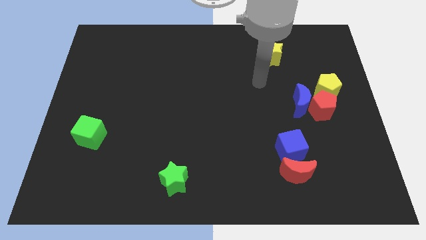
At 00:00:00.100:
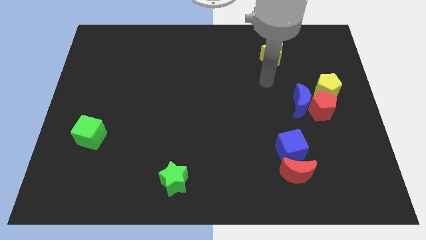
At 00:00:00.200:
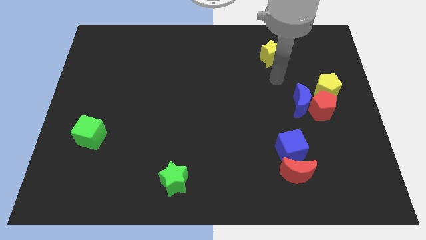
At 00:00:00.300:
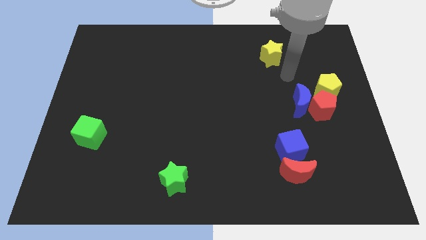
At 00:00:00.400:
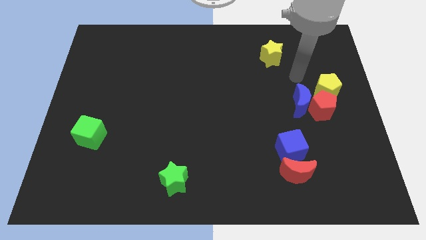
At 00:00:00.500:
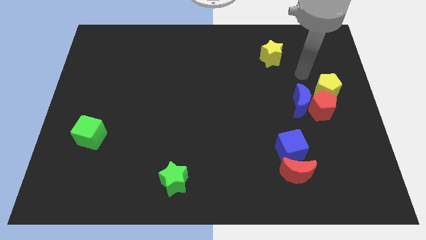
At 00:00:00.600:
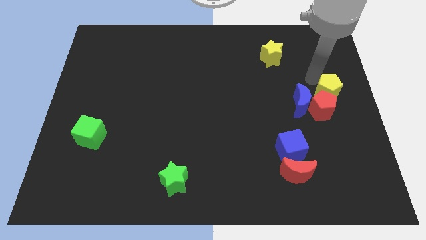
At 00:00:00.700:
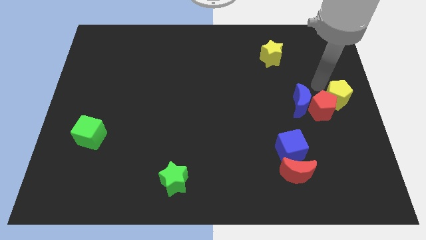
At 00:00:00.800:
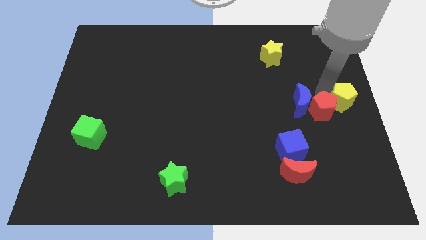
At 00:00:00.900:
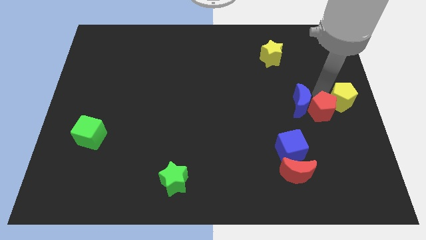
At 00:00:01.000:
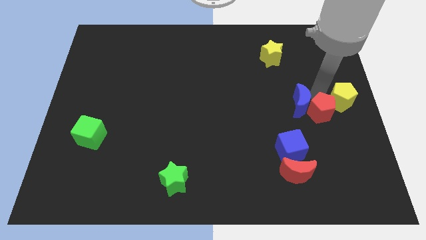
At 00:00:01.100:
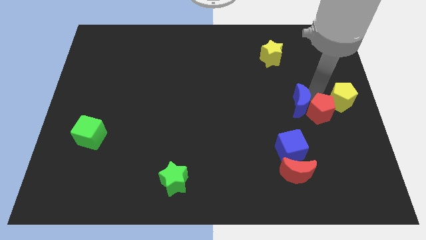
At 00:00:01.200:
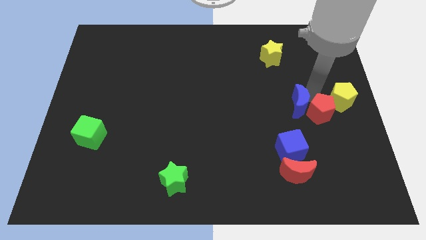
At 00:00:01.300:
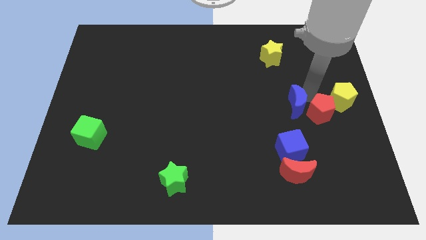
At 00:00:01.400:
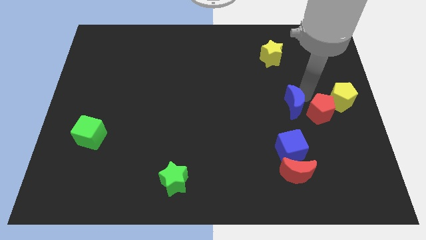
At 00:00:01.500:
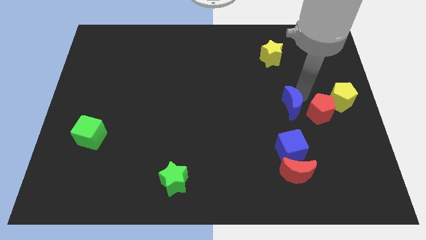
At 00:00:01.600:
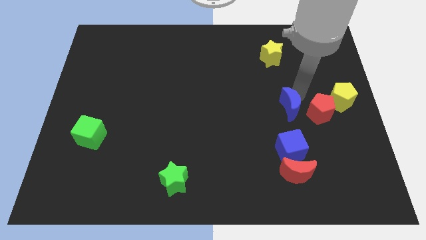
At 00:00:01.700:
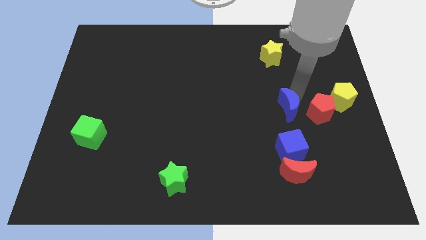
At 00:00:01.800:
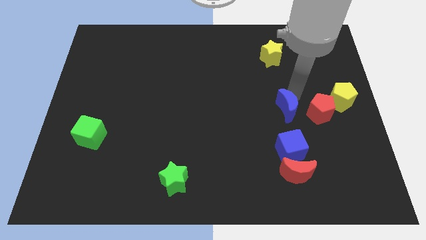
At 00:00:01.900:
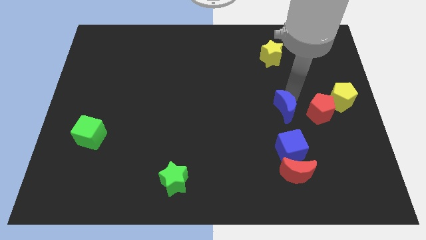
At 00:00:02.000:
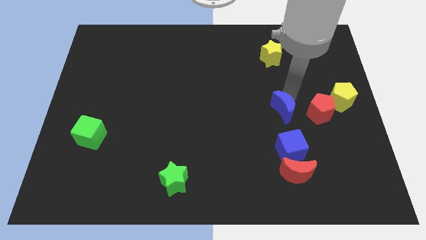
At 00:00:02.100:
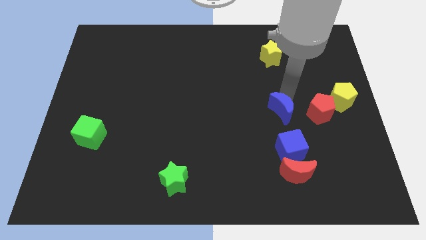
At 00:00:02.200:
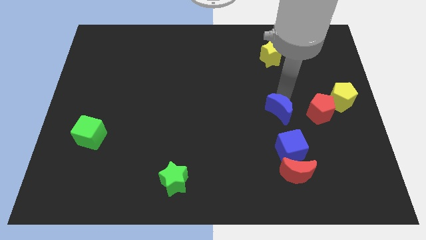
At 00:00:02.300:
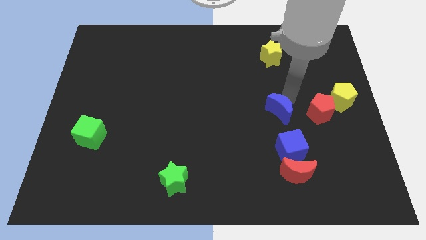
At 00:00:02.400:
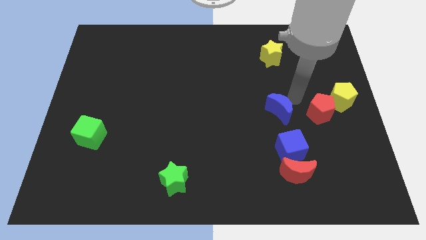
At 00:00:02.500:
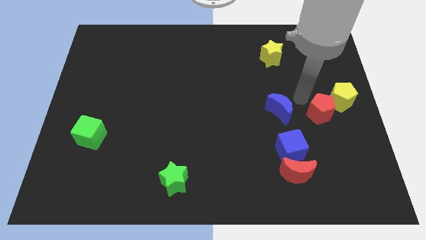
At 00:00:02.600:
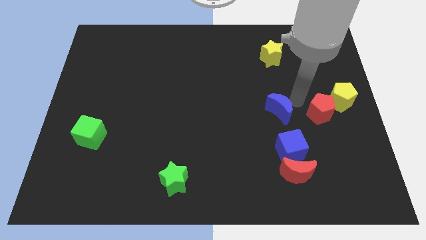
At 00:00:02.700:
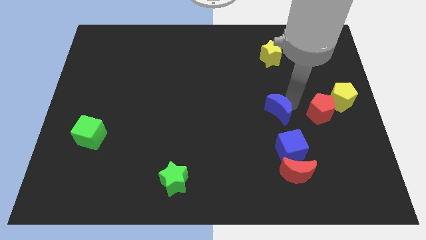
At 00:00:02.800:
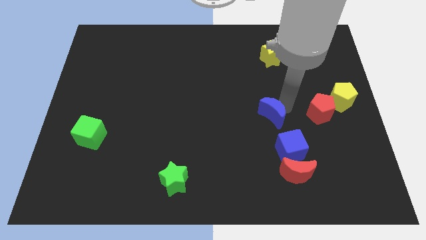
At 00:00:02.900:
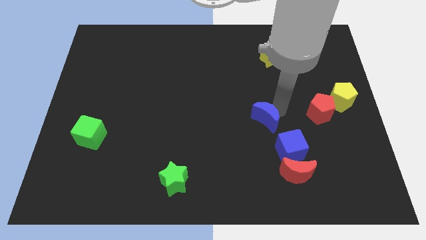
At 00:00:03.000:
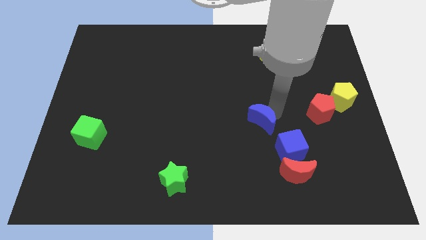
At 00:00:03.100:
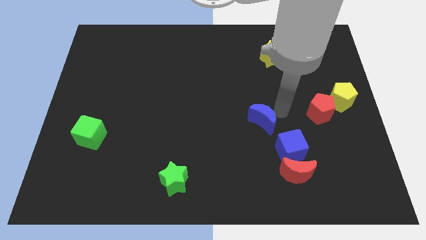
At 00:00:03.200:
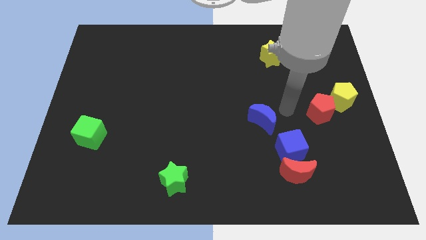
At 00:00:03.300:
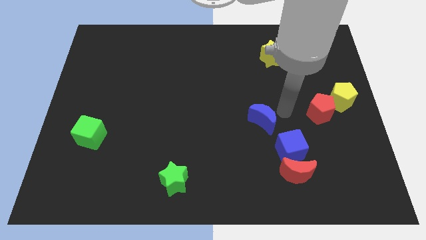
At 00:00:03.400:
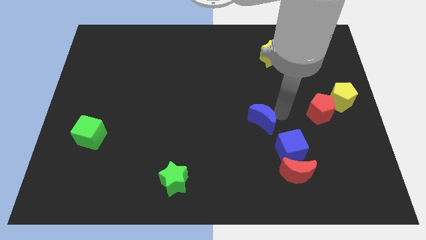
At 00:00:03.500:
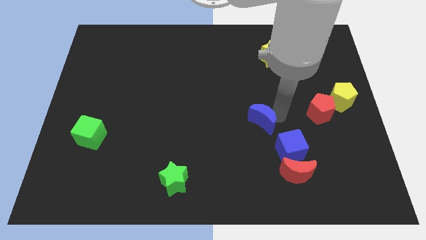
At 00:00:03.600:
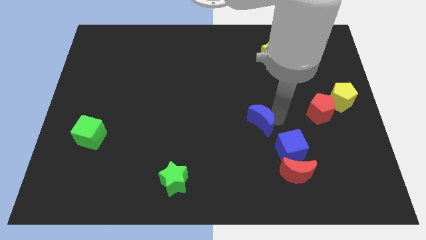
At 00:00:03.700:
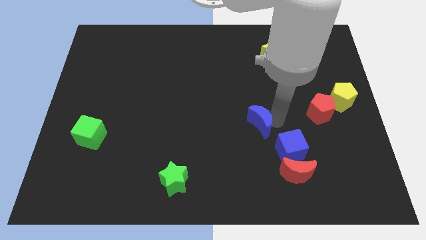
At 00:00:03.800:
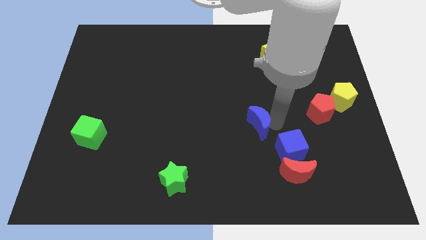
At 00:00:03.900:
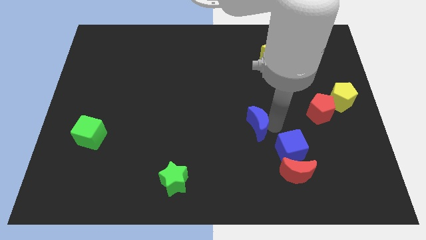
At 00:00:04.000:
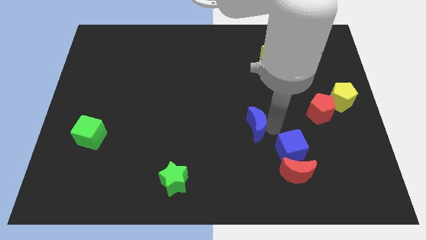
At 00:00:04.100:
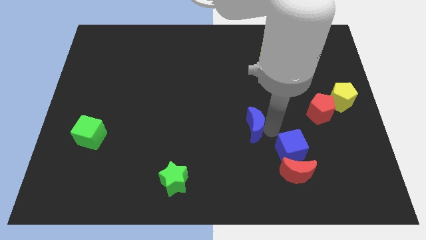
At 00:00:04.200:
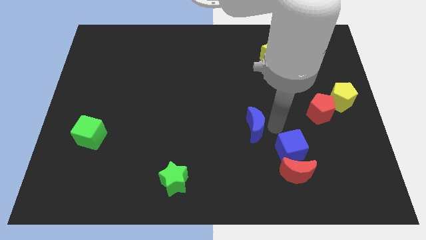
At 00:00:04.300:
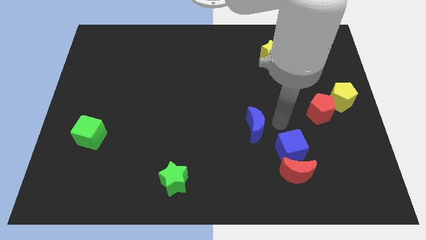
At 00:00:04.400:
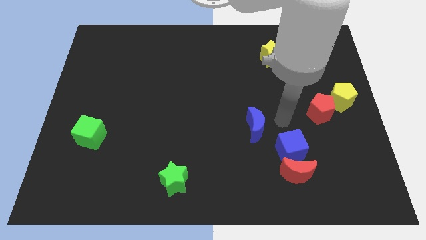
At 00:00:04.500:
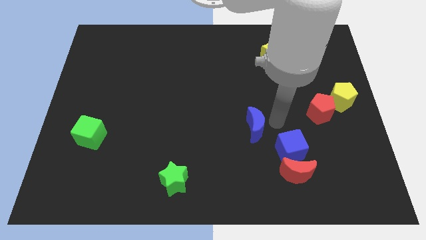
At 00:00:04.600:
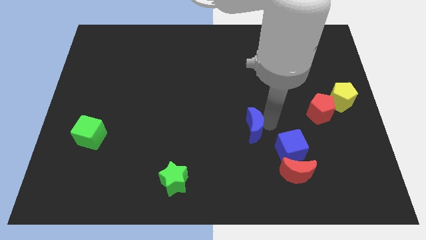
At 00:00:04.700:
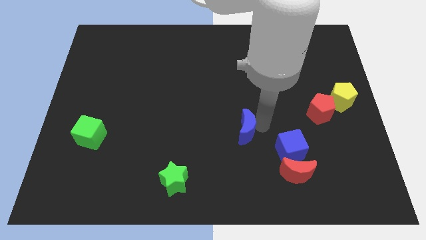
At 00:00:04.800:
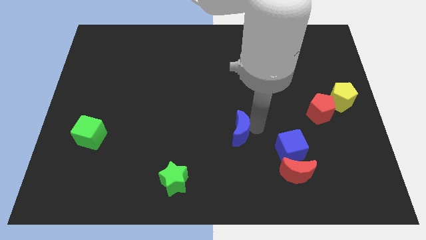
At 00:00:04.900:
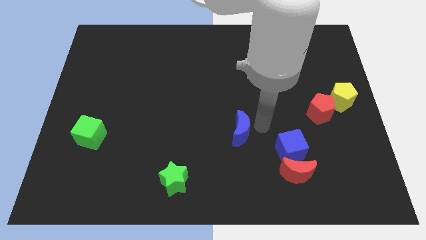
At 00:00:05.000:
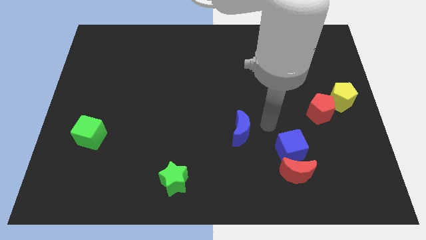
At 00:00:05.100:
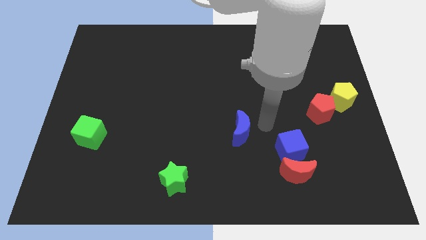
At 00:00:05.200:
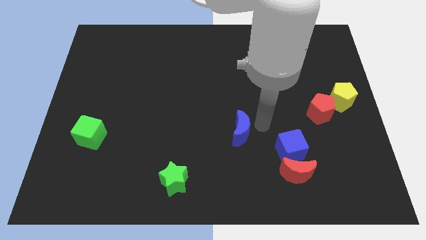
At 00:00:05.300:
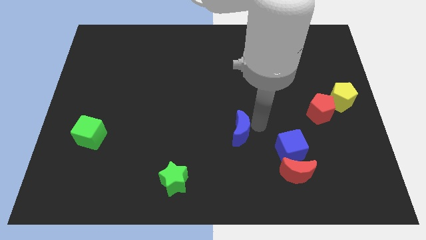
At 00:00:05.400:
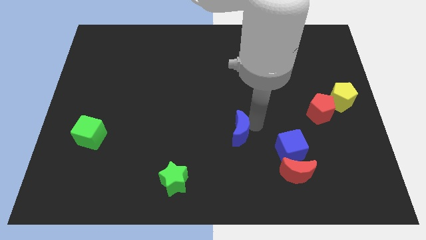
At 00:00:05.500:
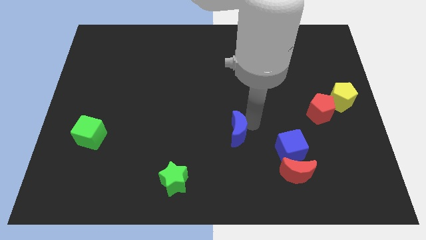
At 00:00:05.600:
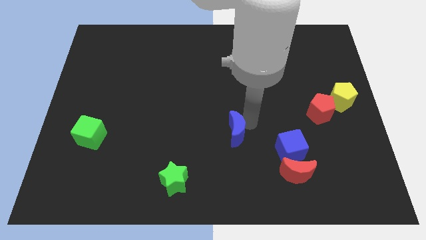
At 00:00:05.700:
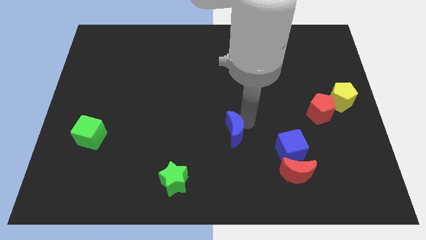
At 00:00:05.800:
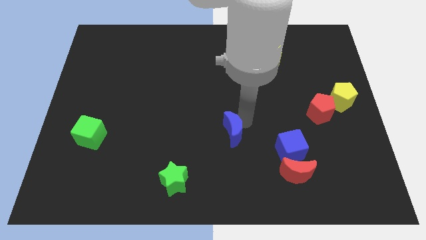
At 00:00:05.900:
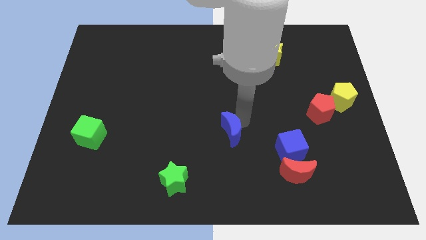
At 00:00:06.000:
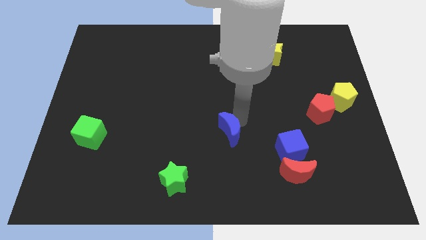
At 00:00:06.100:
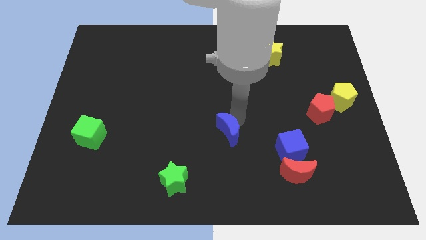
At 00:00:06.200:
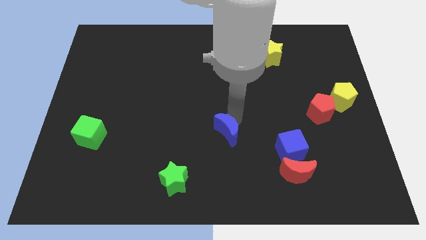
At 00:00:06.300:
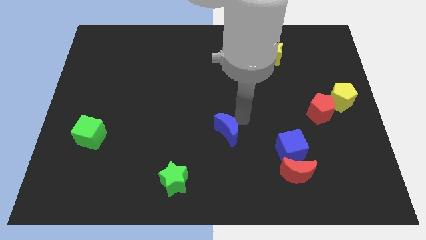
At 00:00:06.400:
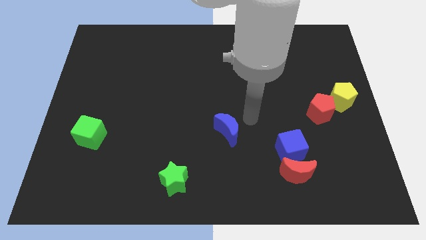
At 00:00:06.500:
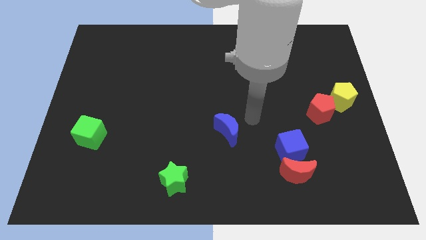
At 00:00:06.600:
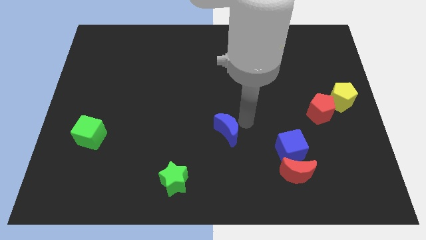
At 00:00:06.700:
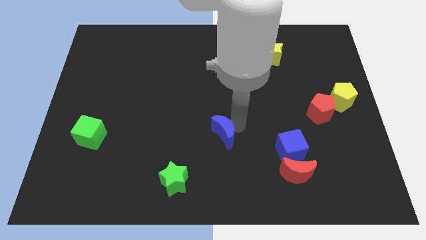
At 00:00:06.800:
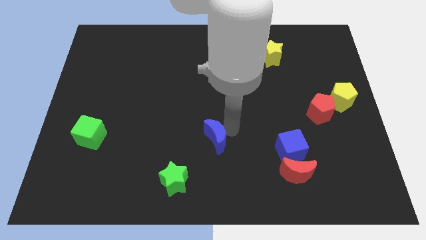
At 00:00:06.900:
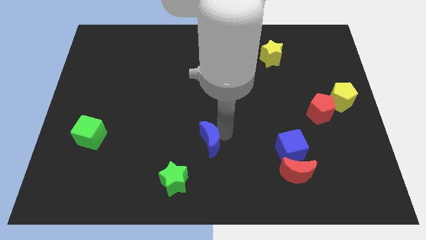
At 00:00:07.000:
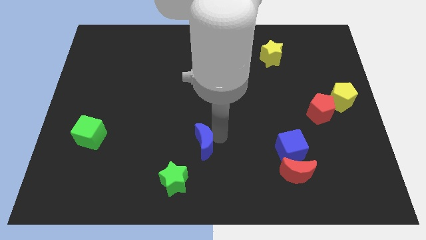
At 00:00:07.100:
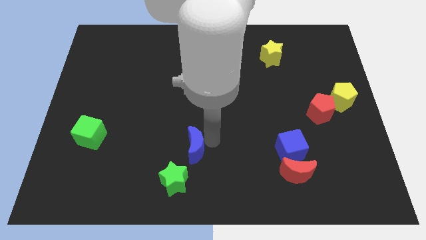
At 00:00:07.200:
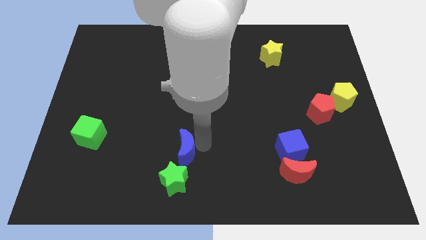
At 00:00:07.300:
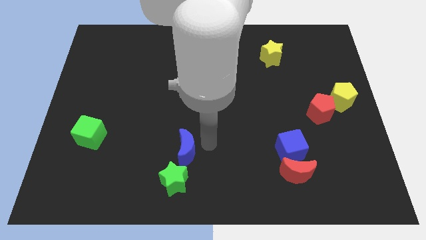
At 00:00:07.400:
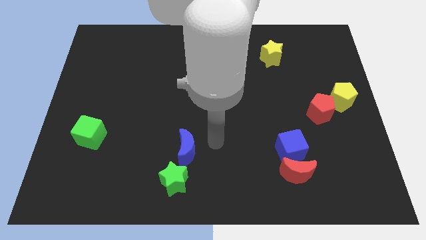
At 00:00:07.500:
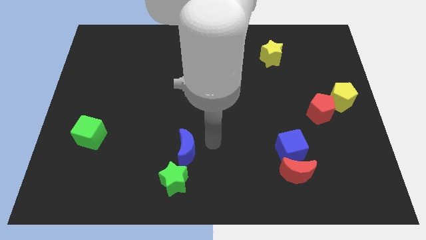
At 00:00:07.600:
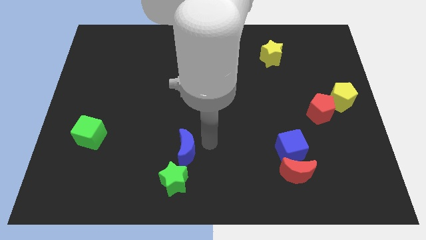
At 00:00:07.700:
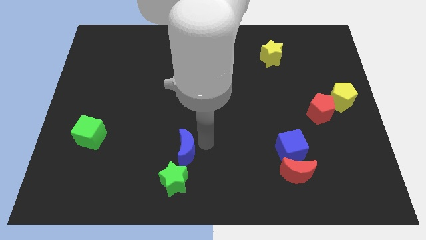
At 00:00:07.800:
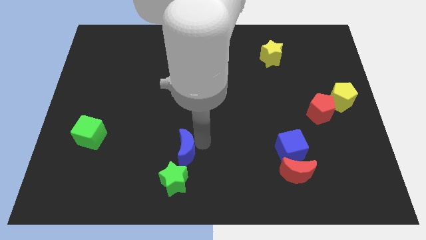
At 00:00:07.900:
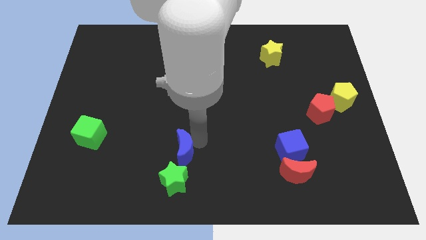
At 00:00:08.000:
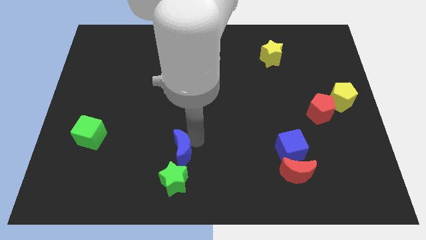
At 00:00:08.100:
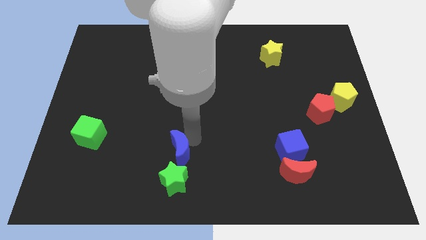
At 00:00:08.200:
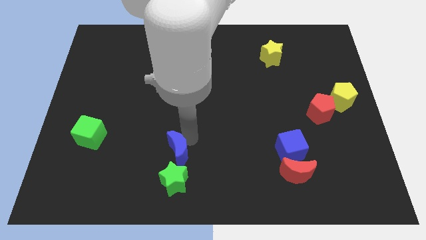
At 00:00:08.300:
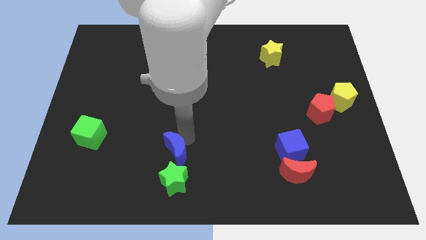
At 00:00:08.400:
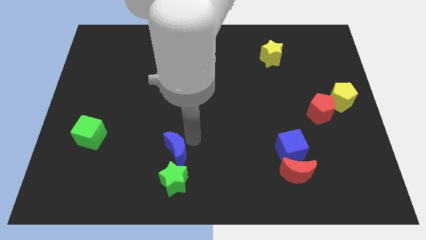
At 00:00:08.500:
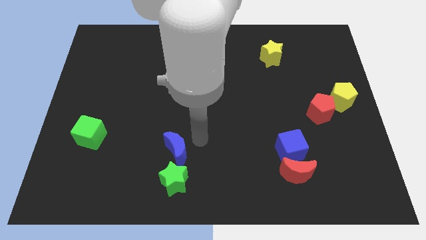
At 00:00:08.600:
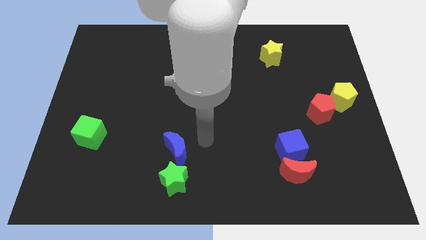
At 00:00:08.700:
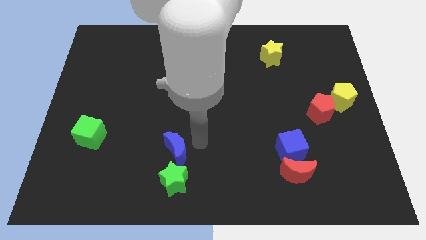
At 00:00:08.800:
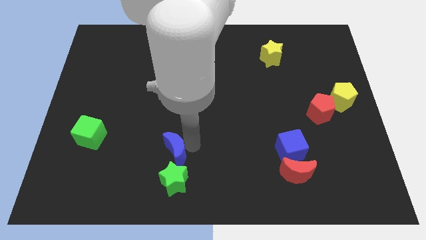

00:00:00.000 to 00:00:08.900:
push the blue moon diagonally up and to the left of the green star
